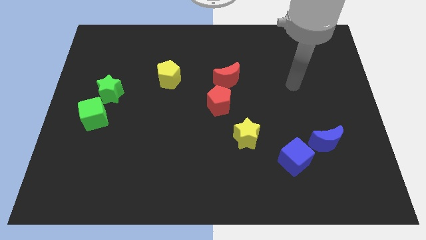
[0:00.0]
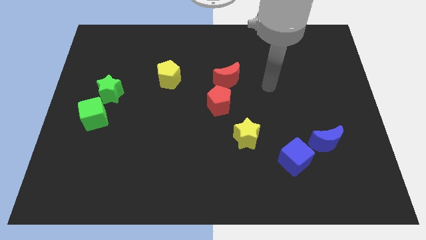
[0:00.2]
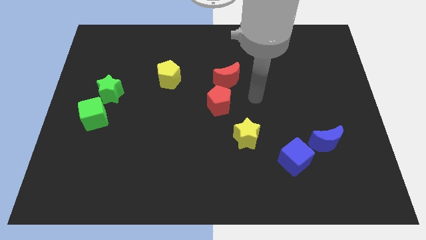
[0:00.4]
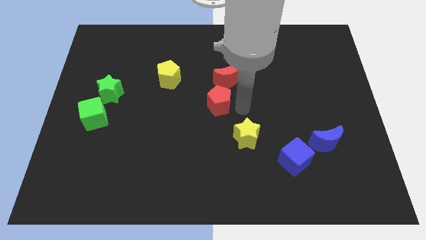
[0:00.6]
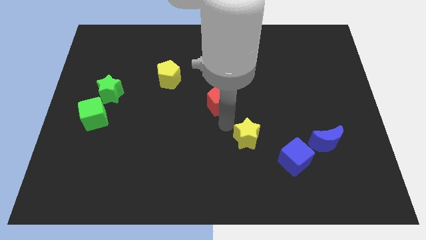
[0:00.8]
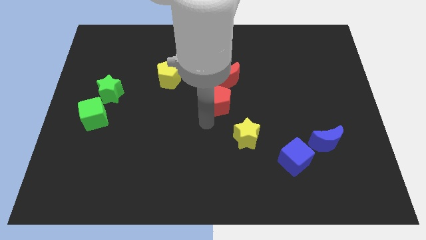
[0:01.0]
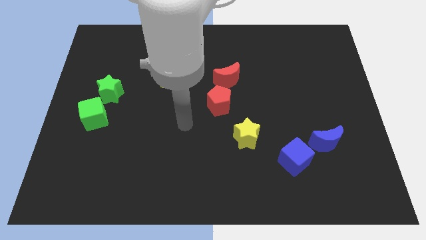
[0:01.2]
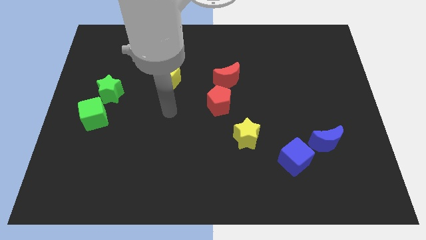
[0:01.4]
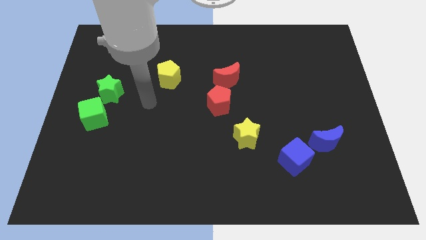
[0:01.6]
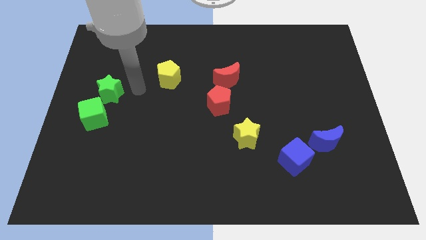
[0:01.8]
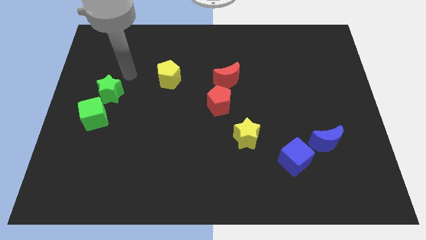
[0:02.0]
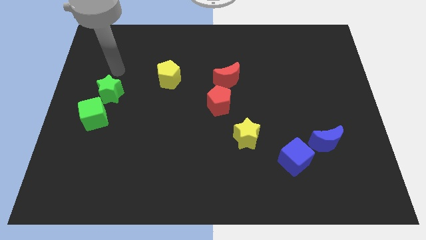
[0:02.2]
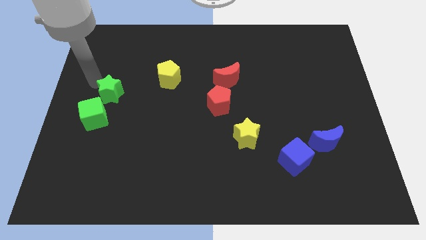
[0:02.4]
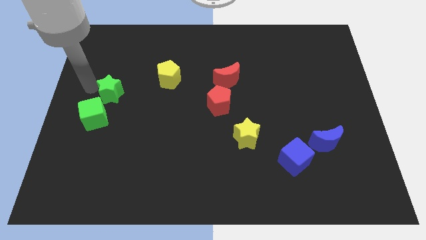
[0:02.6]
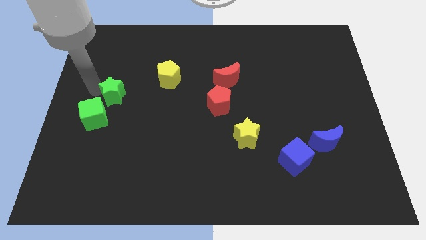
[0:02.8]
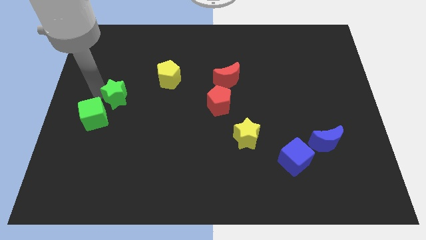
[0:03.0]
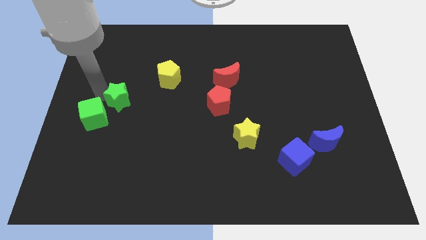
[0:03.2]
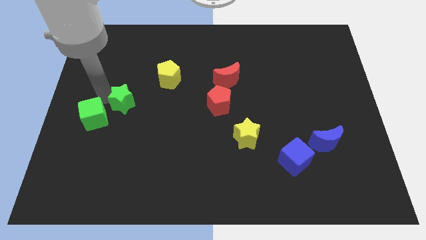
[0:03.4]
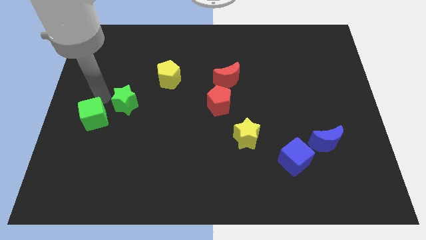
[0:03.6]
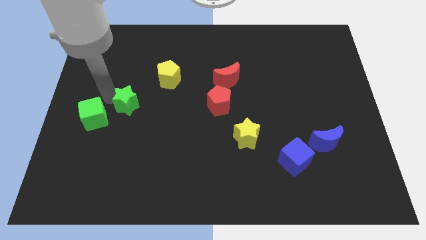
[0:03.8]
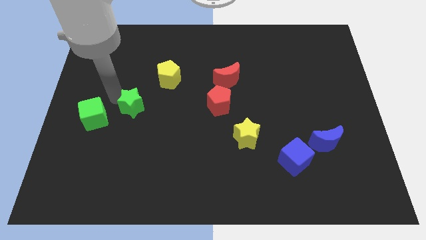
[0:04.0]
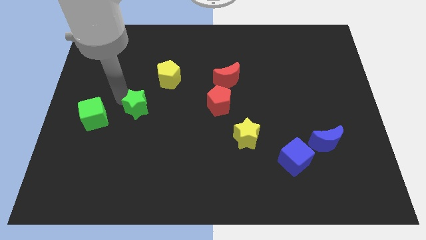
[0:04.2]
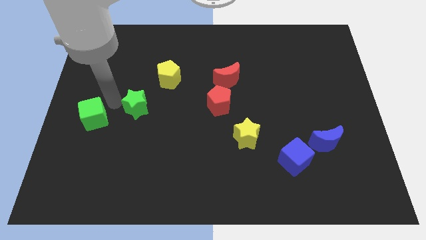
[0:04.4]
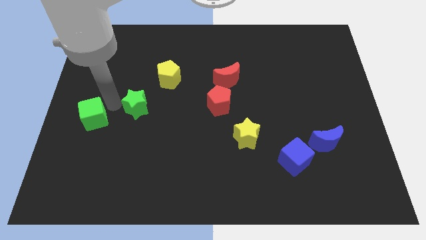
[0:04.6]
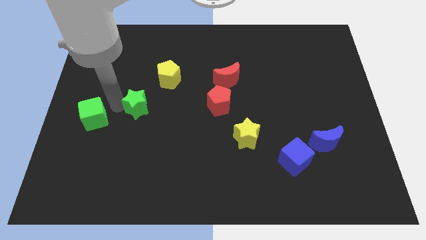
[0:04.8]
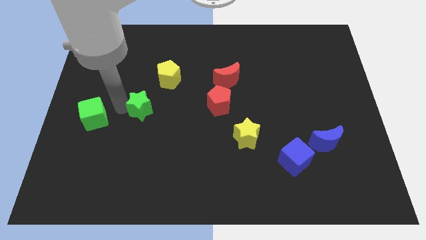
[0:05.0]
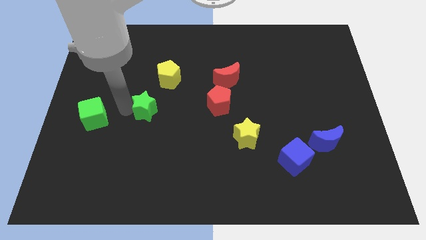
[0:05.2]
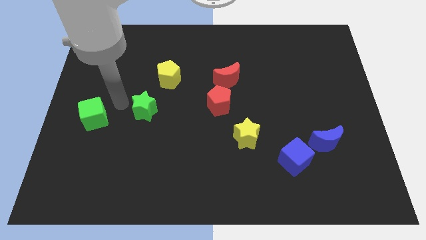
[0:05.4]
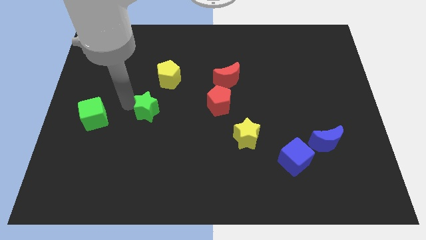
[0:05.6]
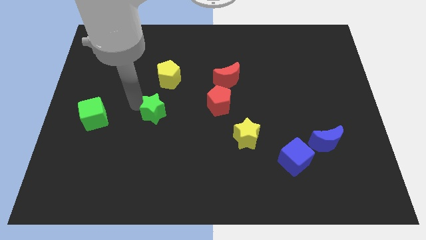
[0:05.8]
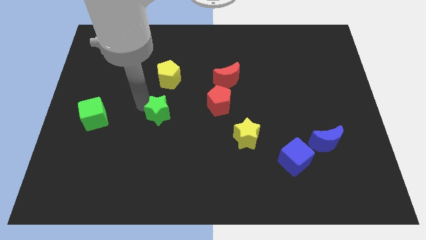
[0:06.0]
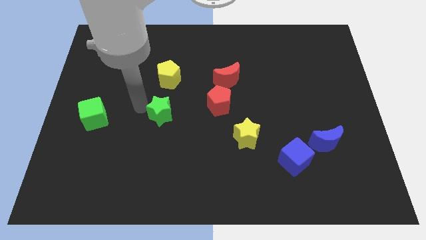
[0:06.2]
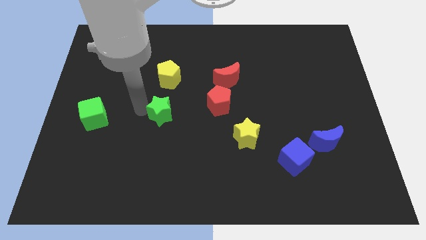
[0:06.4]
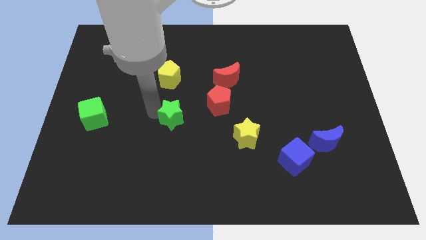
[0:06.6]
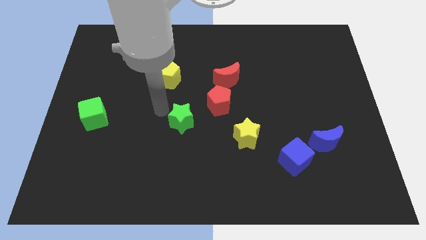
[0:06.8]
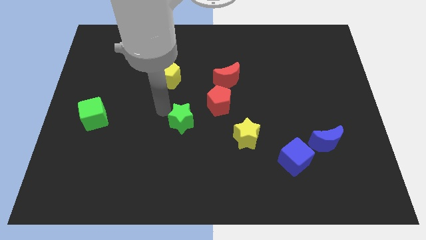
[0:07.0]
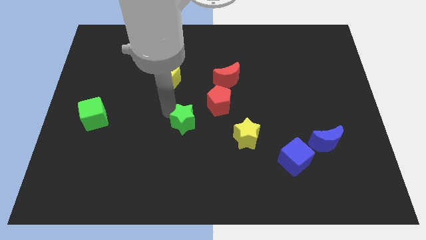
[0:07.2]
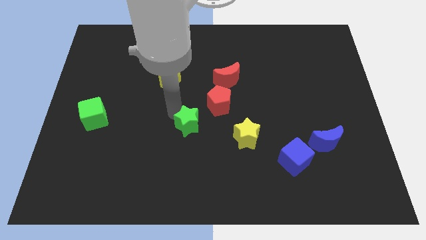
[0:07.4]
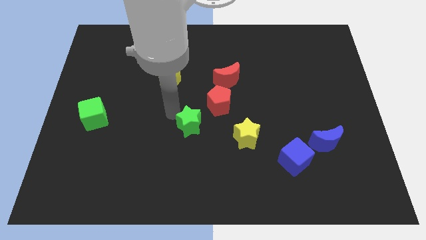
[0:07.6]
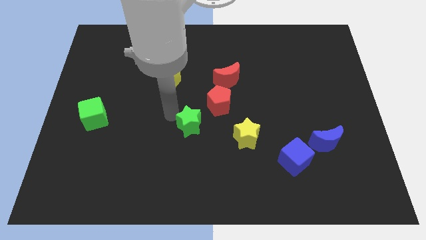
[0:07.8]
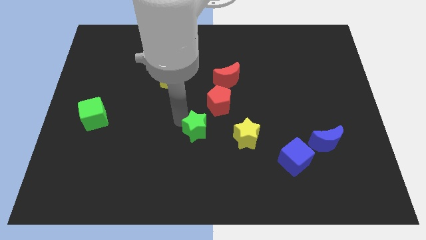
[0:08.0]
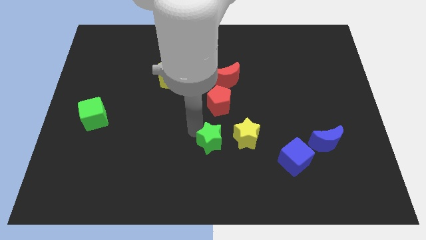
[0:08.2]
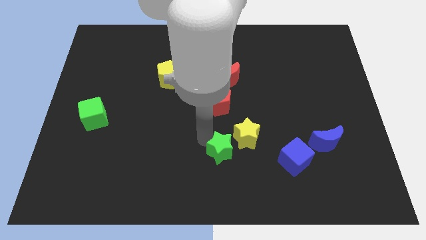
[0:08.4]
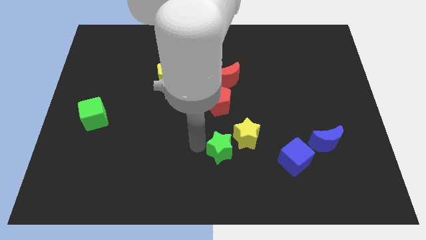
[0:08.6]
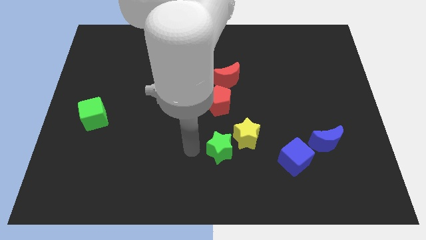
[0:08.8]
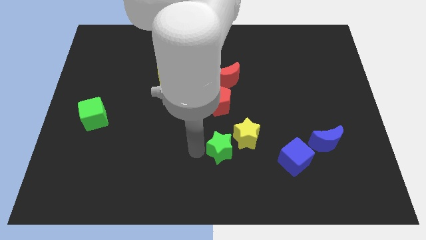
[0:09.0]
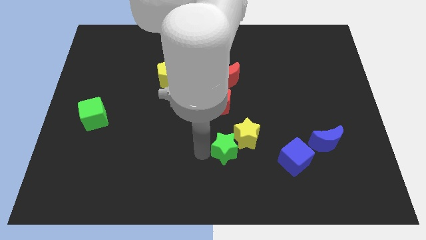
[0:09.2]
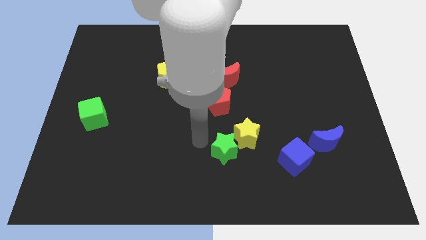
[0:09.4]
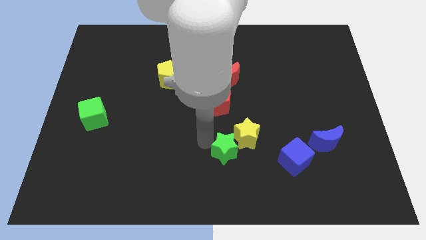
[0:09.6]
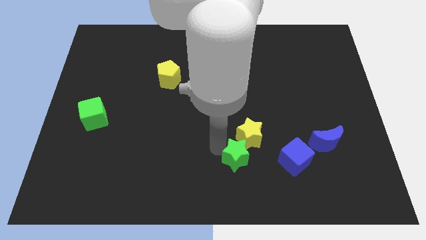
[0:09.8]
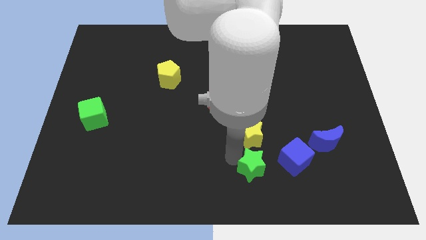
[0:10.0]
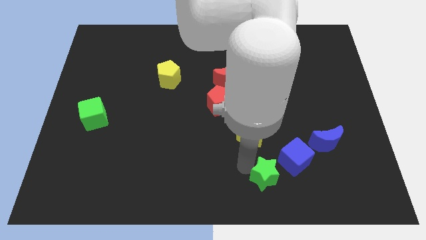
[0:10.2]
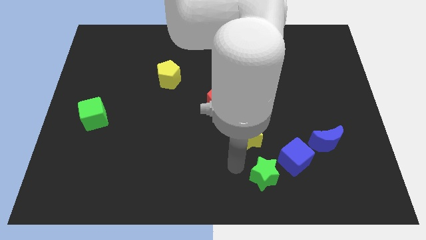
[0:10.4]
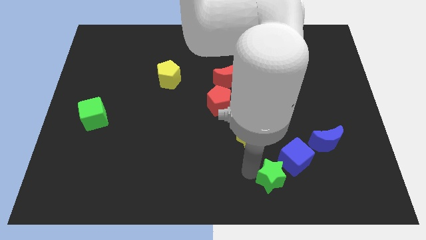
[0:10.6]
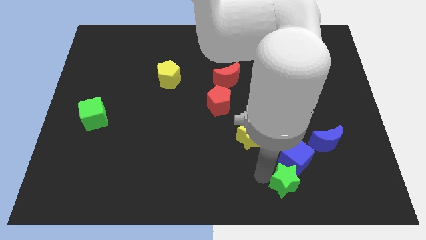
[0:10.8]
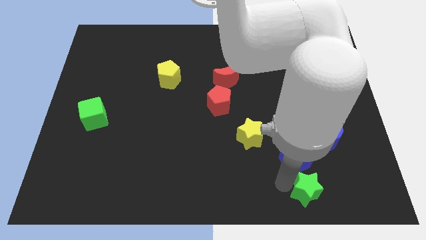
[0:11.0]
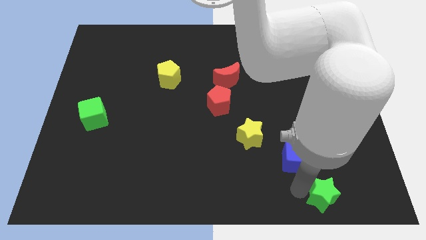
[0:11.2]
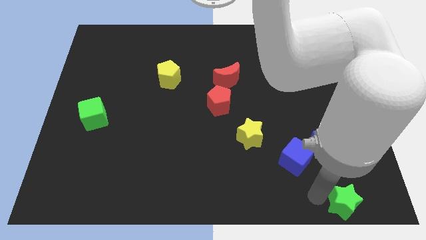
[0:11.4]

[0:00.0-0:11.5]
slide the green star to the bottom right corner
